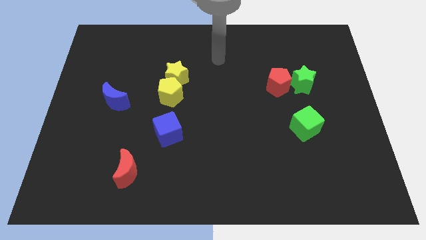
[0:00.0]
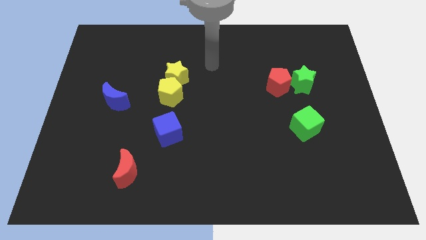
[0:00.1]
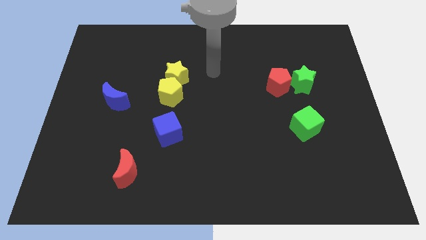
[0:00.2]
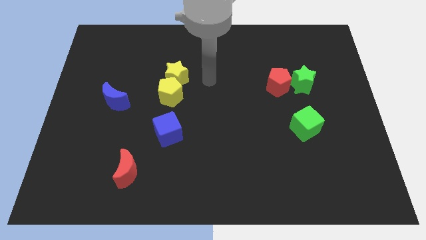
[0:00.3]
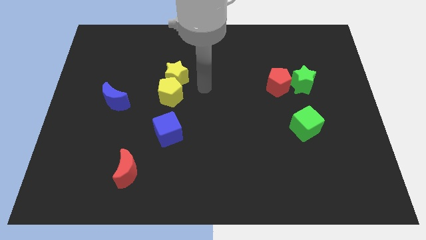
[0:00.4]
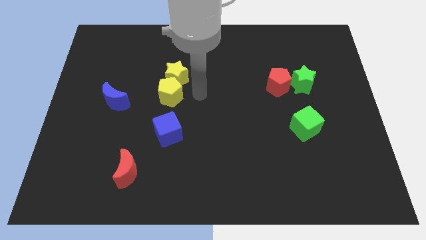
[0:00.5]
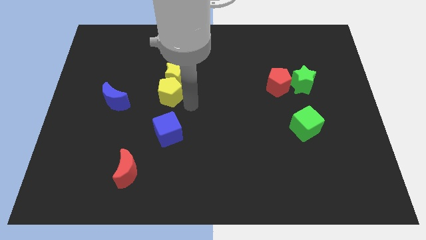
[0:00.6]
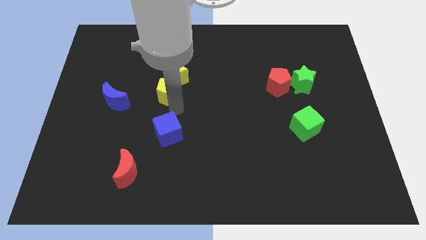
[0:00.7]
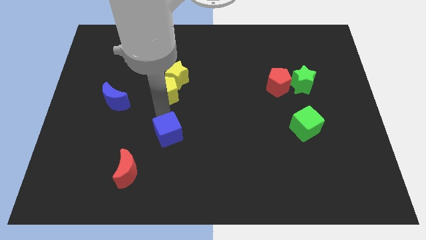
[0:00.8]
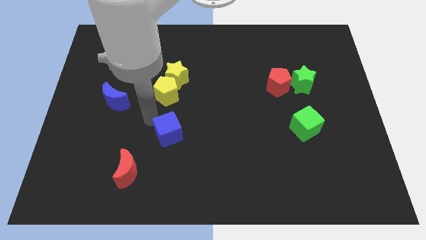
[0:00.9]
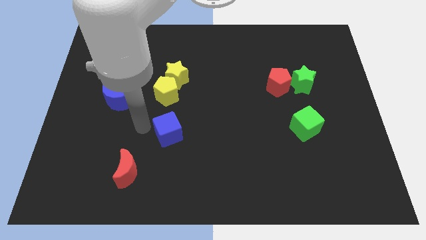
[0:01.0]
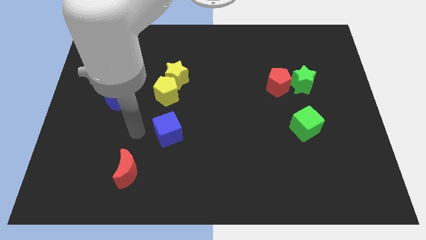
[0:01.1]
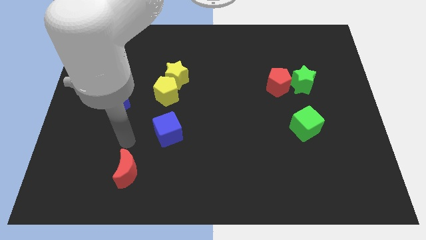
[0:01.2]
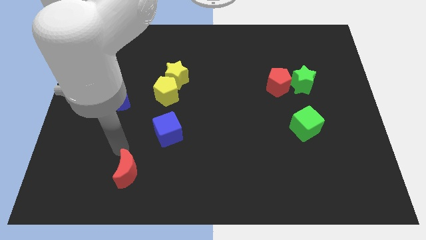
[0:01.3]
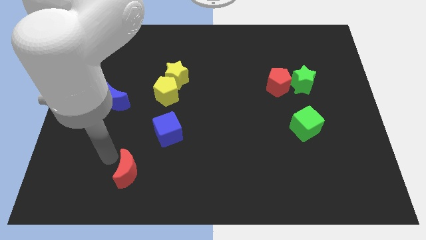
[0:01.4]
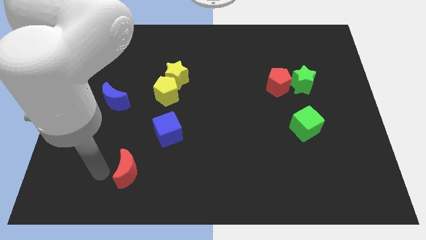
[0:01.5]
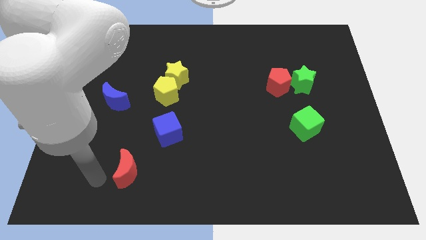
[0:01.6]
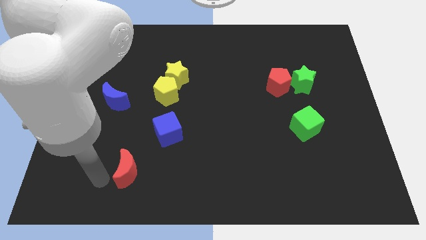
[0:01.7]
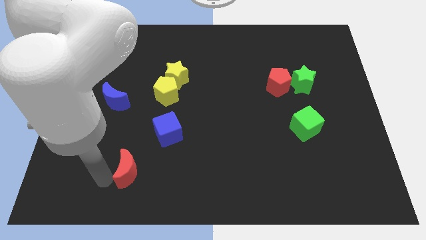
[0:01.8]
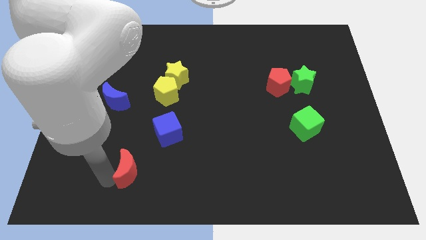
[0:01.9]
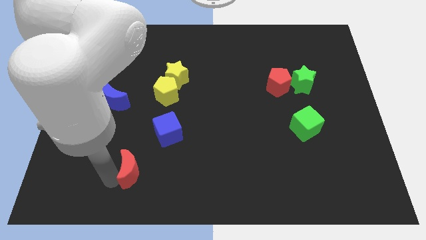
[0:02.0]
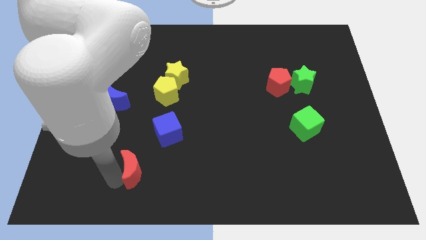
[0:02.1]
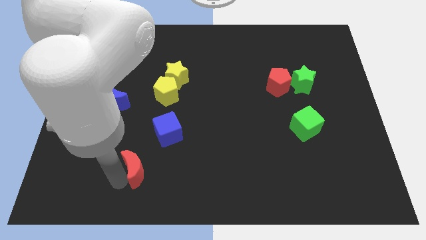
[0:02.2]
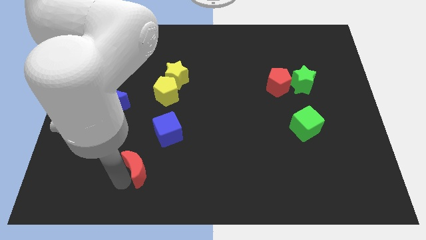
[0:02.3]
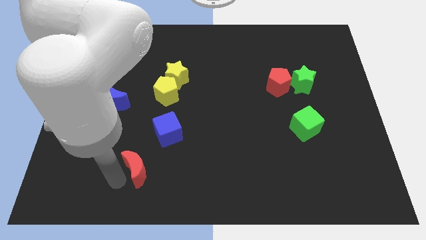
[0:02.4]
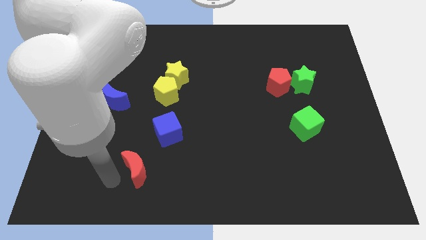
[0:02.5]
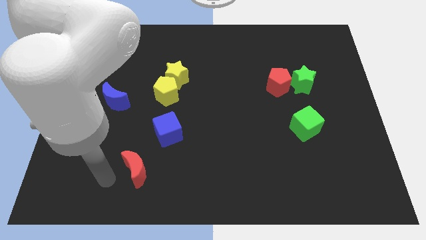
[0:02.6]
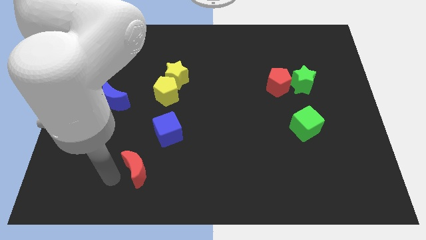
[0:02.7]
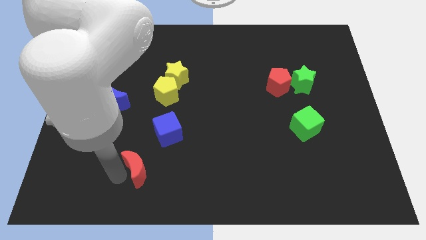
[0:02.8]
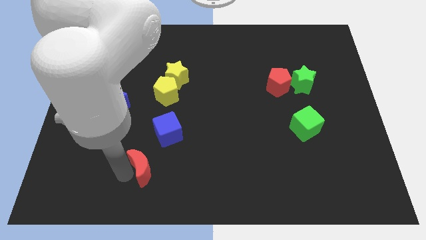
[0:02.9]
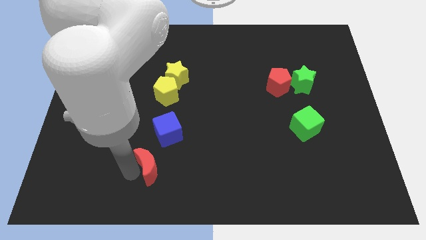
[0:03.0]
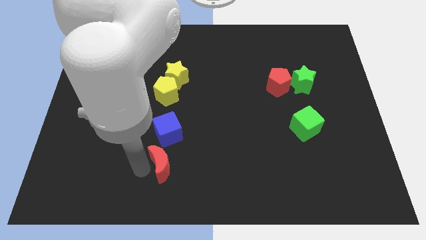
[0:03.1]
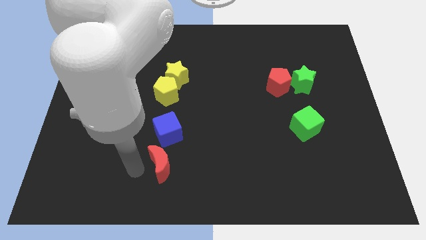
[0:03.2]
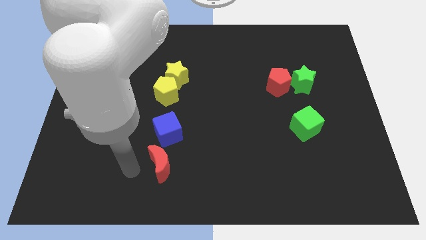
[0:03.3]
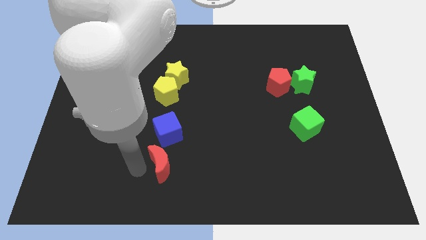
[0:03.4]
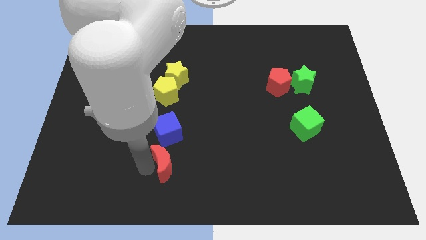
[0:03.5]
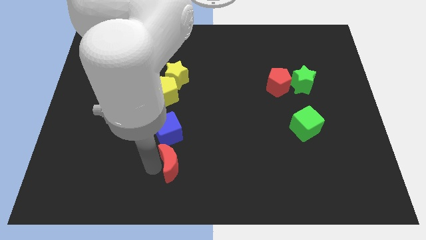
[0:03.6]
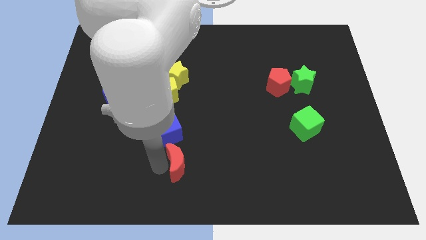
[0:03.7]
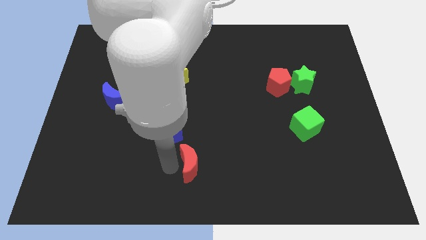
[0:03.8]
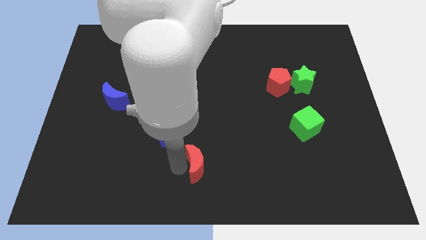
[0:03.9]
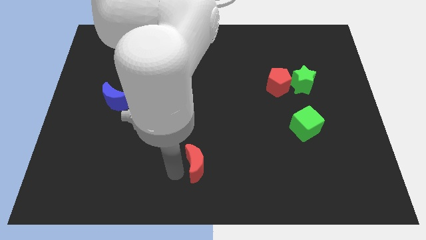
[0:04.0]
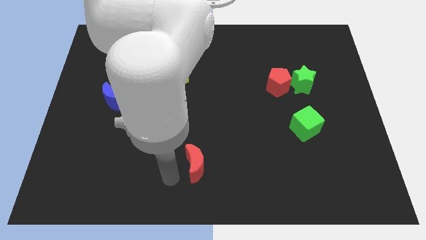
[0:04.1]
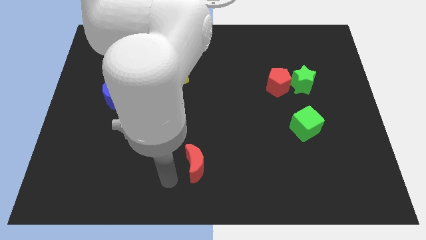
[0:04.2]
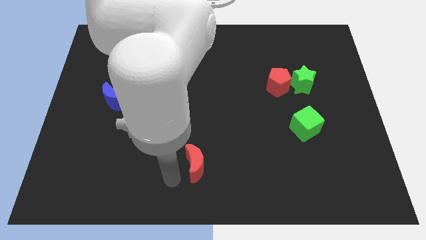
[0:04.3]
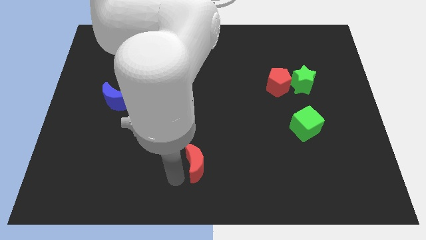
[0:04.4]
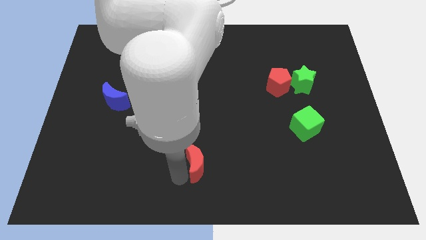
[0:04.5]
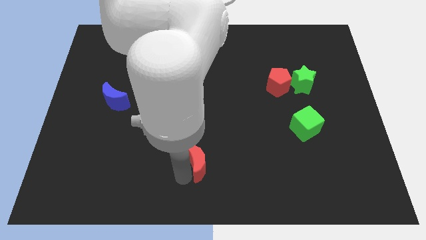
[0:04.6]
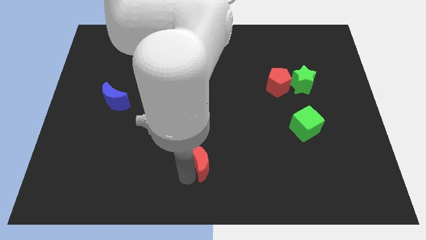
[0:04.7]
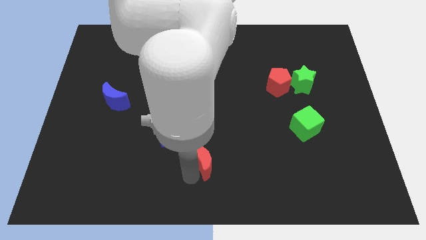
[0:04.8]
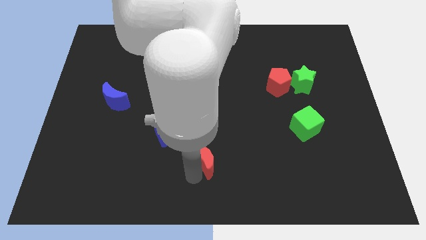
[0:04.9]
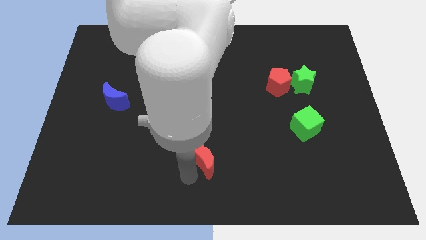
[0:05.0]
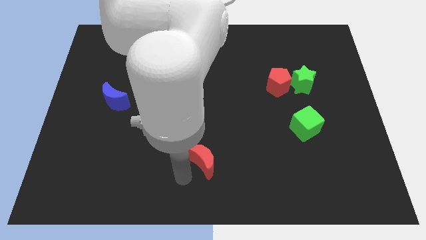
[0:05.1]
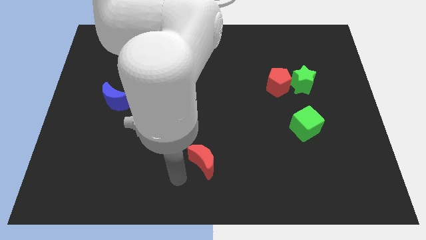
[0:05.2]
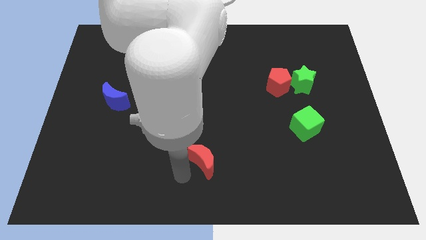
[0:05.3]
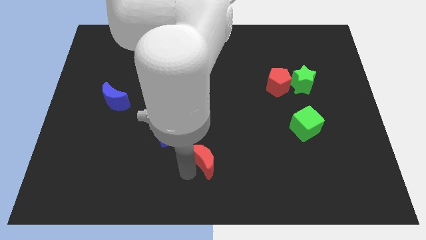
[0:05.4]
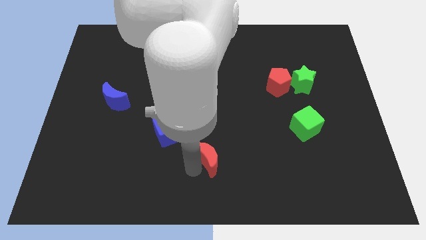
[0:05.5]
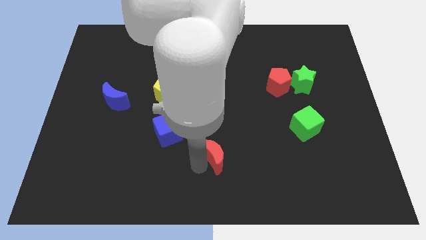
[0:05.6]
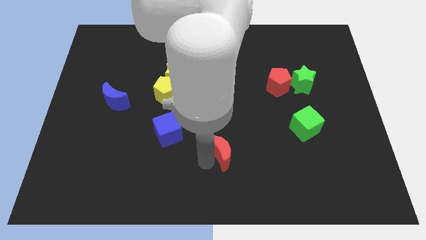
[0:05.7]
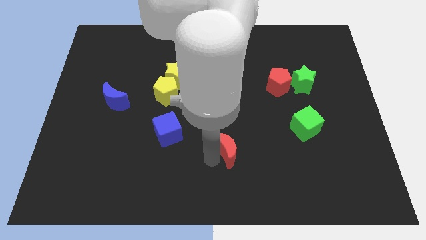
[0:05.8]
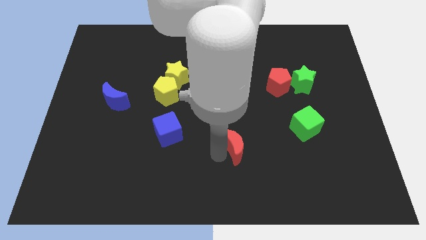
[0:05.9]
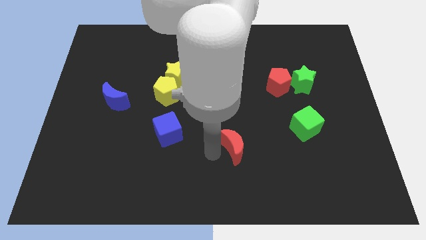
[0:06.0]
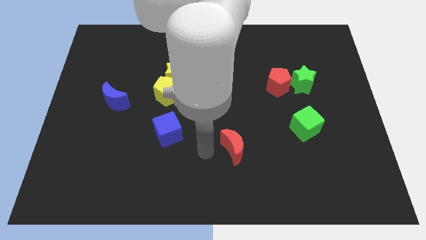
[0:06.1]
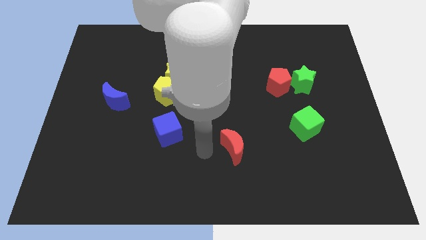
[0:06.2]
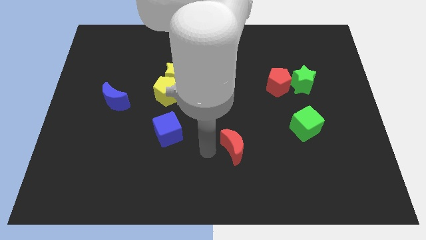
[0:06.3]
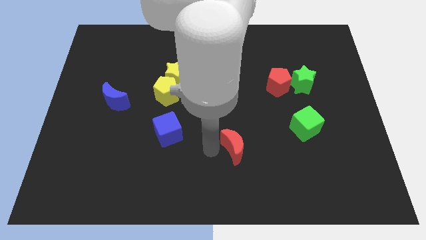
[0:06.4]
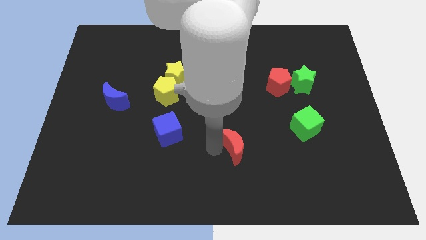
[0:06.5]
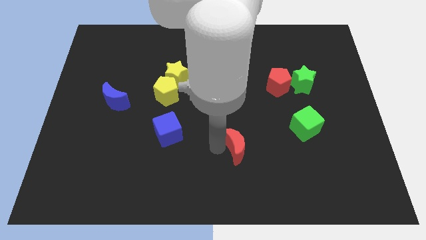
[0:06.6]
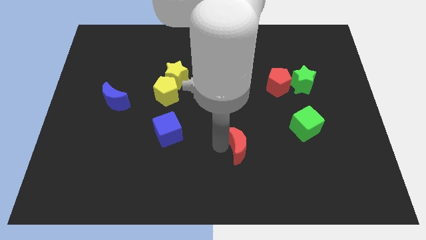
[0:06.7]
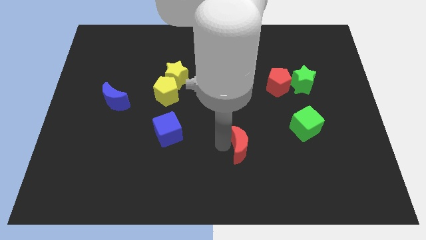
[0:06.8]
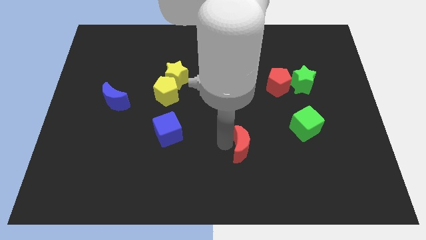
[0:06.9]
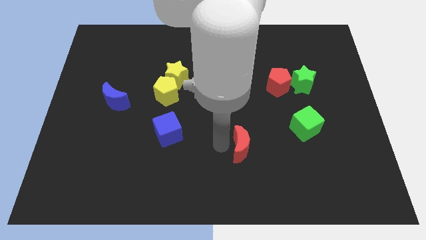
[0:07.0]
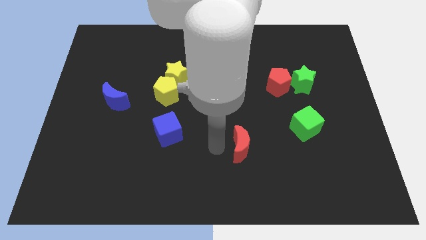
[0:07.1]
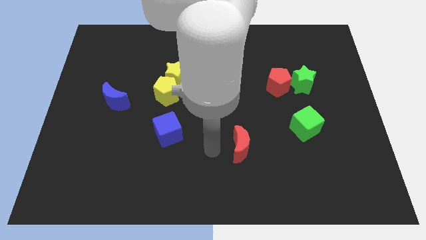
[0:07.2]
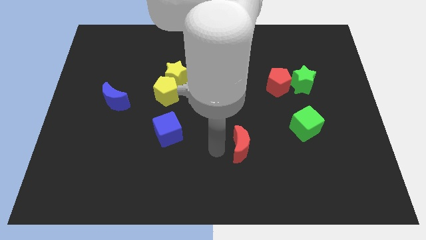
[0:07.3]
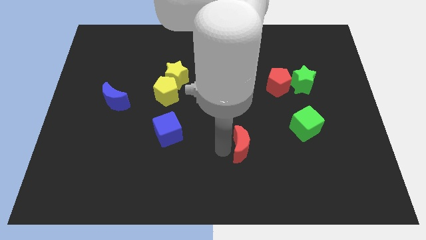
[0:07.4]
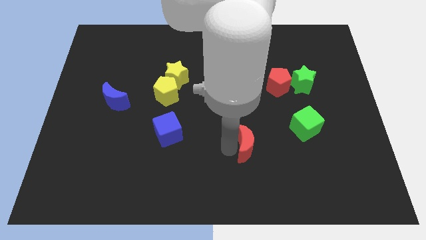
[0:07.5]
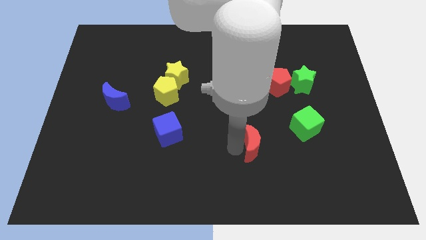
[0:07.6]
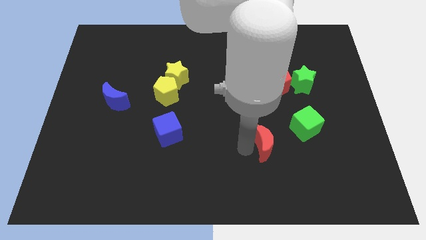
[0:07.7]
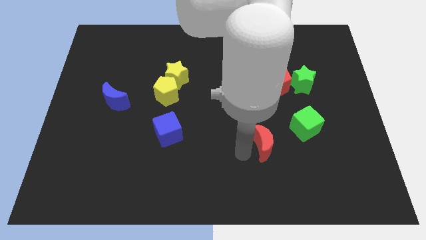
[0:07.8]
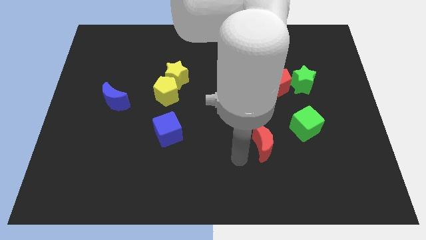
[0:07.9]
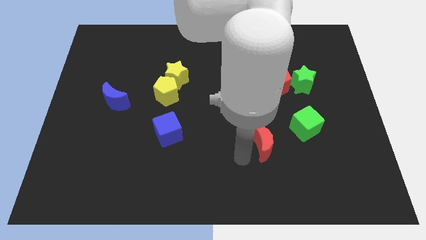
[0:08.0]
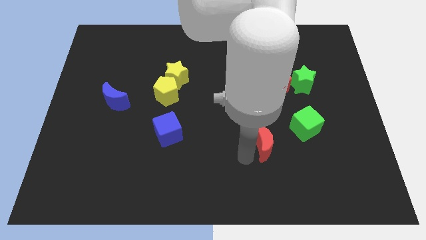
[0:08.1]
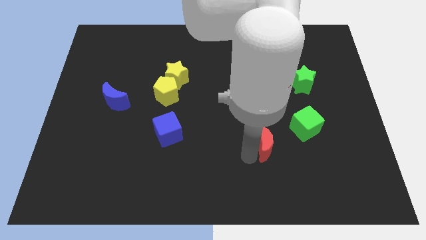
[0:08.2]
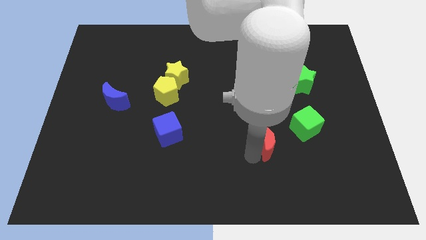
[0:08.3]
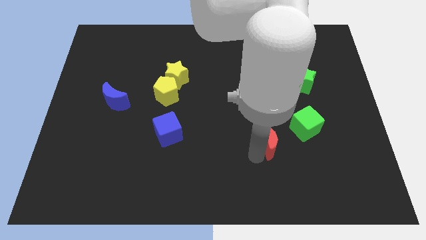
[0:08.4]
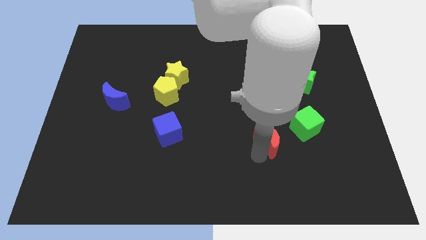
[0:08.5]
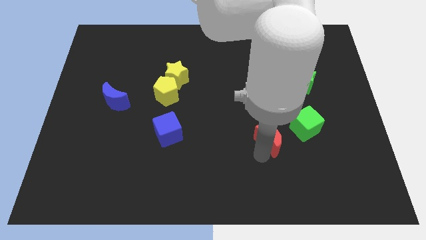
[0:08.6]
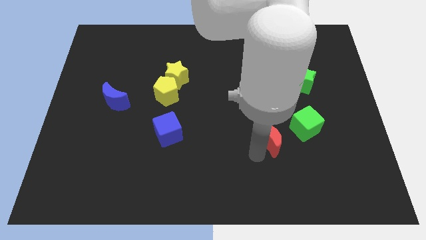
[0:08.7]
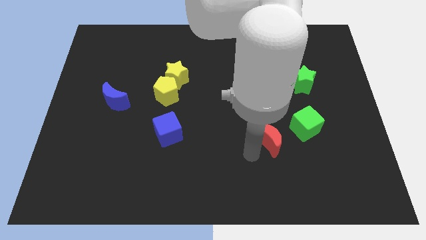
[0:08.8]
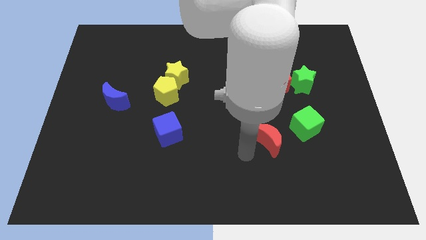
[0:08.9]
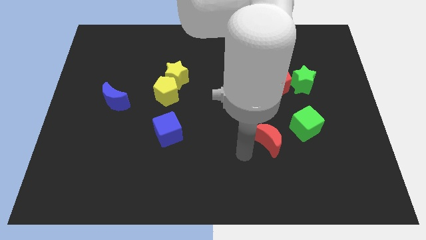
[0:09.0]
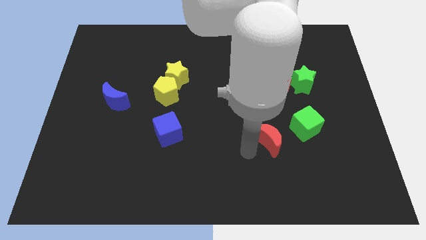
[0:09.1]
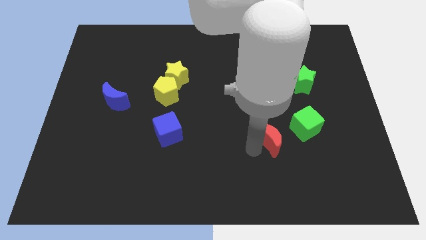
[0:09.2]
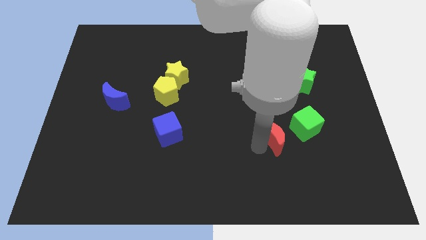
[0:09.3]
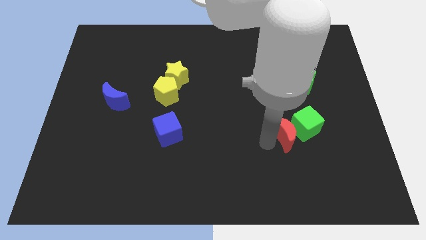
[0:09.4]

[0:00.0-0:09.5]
move the red moon next to the green cube
